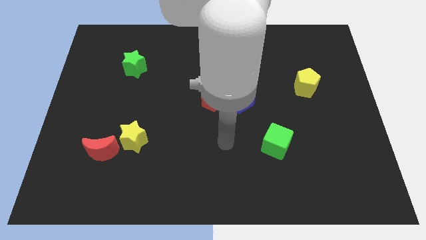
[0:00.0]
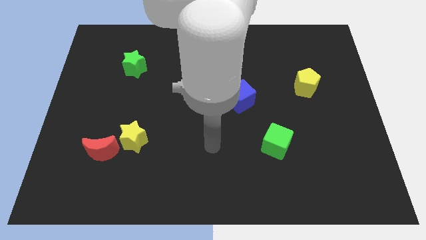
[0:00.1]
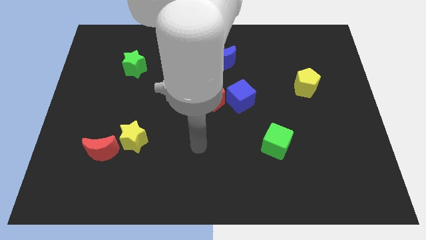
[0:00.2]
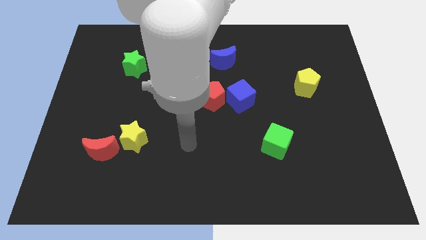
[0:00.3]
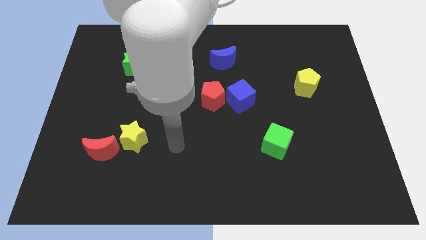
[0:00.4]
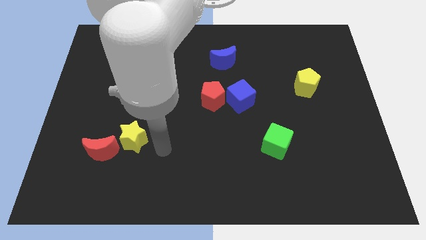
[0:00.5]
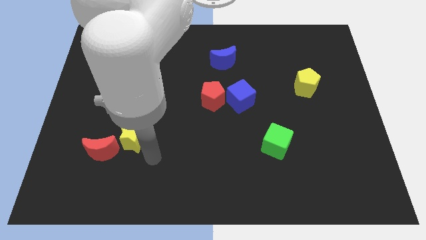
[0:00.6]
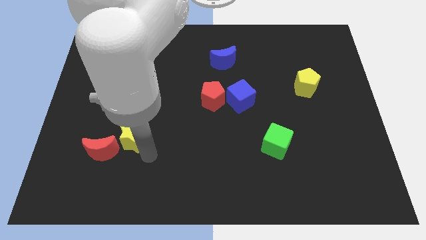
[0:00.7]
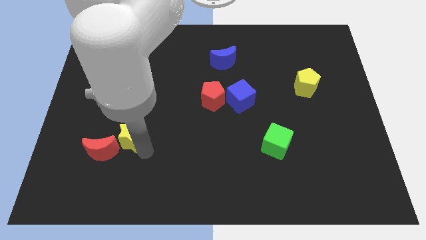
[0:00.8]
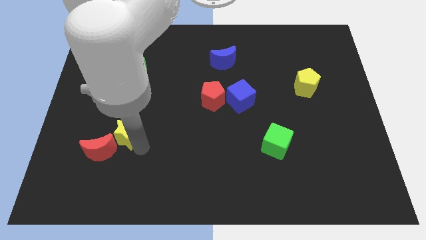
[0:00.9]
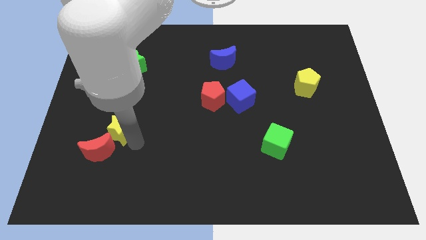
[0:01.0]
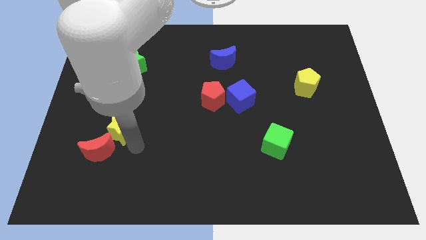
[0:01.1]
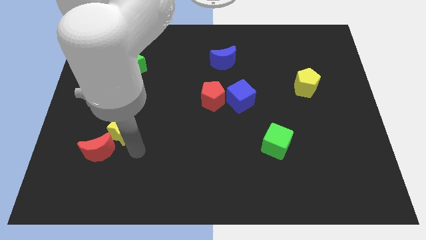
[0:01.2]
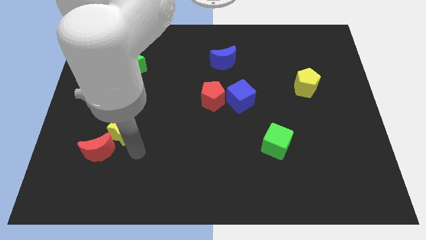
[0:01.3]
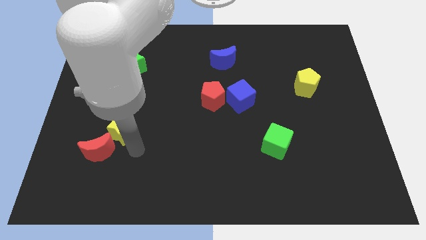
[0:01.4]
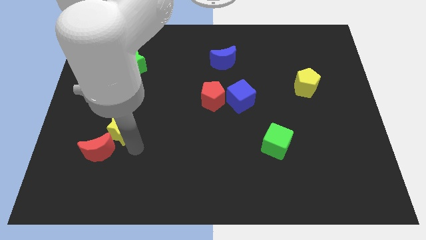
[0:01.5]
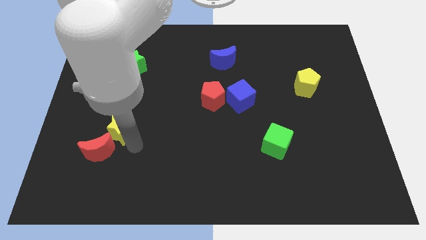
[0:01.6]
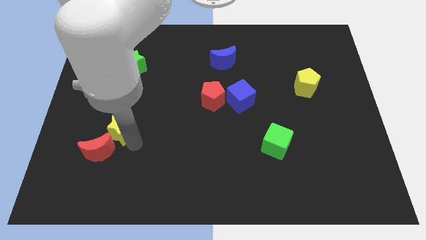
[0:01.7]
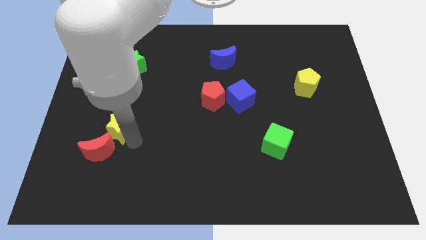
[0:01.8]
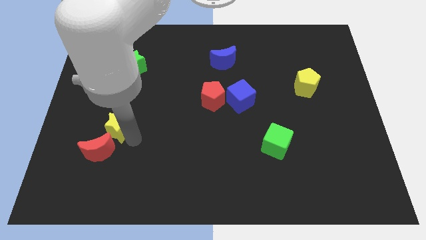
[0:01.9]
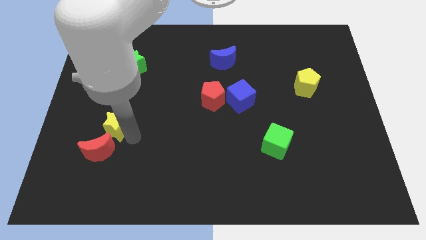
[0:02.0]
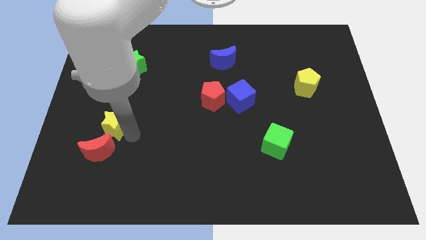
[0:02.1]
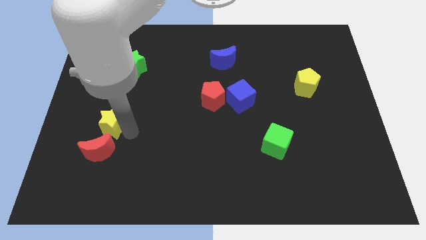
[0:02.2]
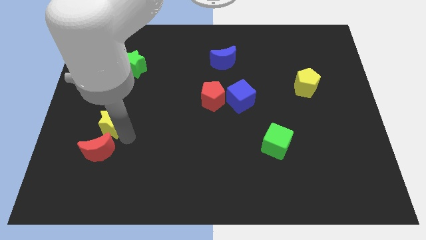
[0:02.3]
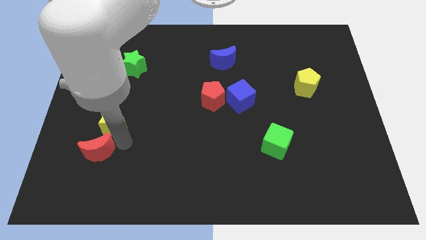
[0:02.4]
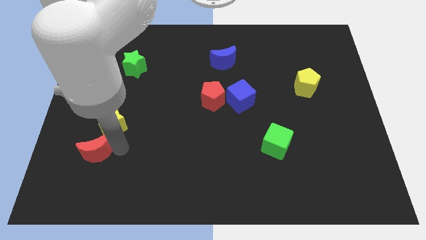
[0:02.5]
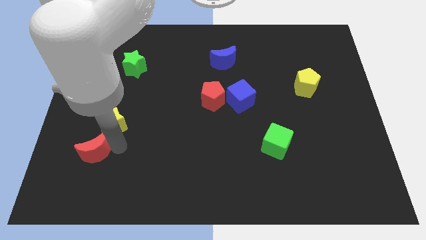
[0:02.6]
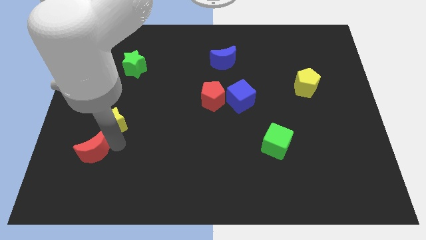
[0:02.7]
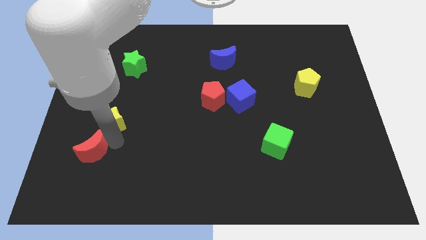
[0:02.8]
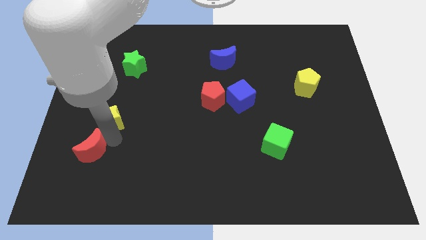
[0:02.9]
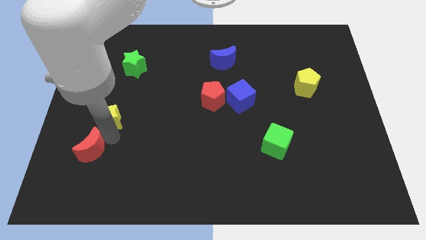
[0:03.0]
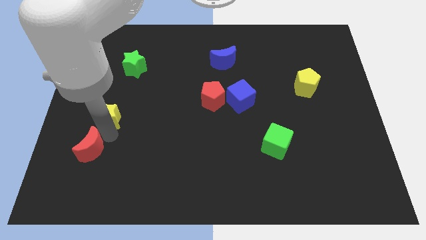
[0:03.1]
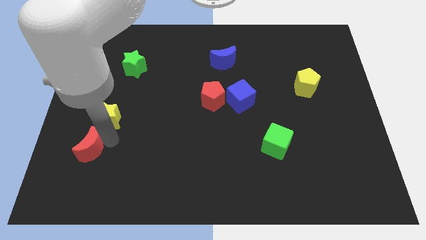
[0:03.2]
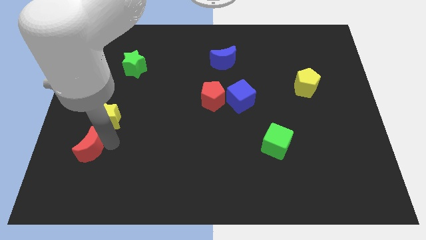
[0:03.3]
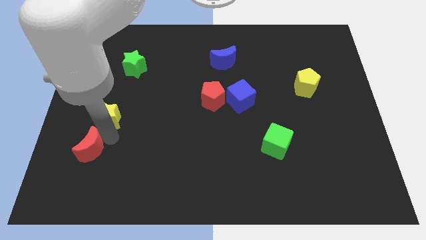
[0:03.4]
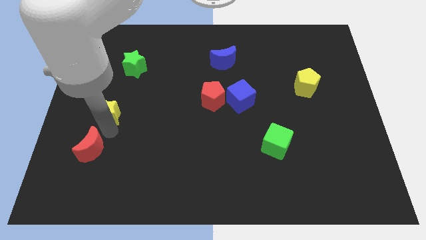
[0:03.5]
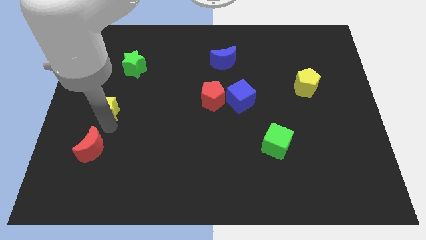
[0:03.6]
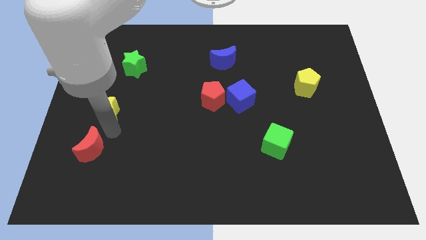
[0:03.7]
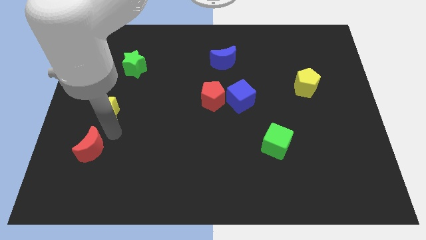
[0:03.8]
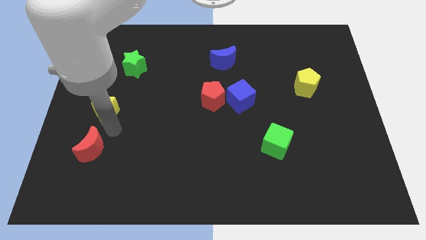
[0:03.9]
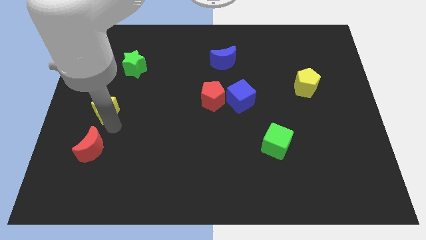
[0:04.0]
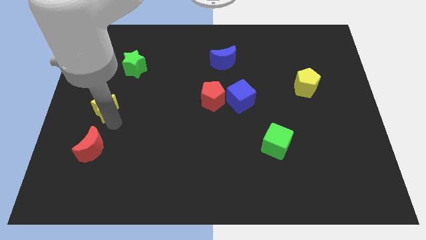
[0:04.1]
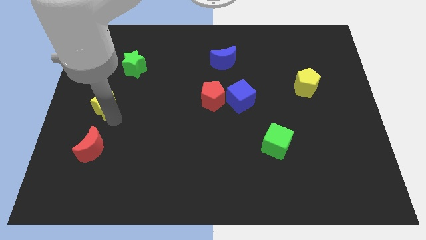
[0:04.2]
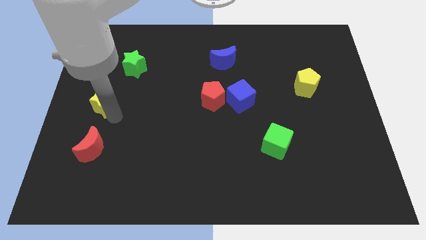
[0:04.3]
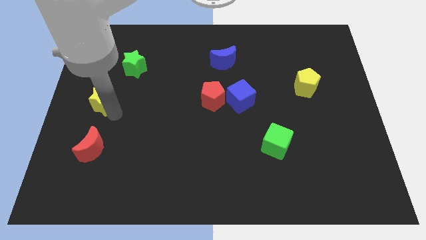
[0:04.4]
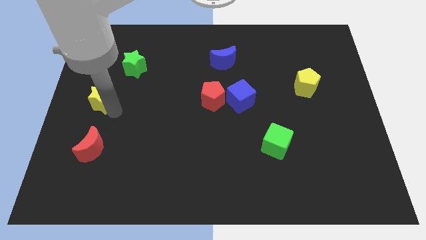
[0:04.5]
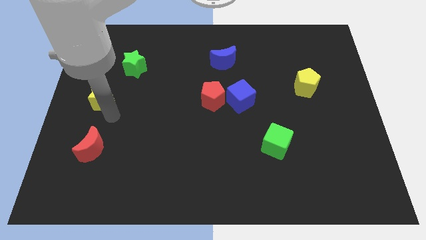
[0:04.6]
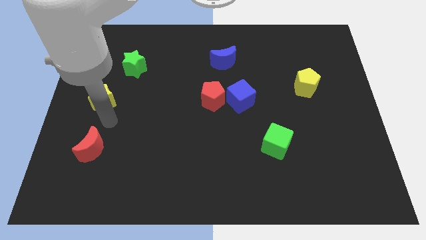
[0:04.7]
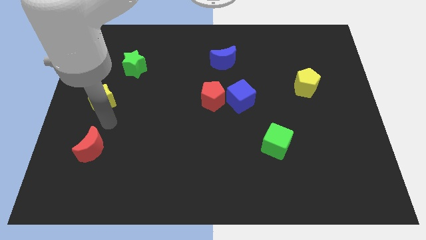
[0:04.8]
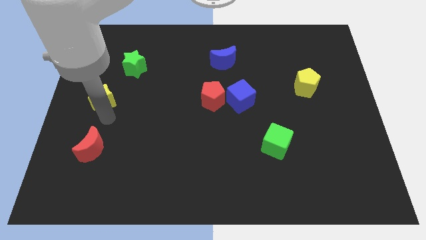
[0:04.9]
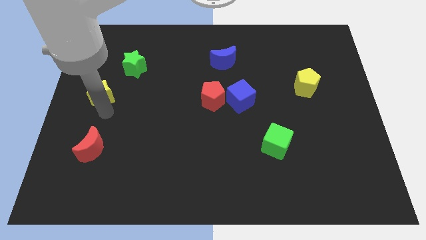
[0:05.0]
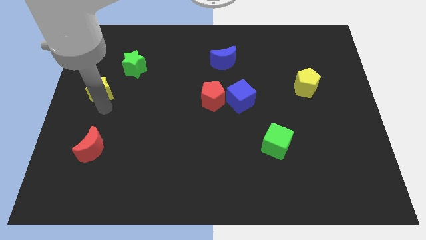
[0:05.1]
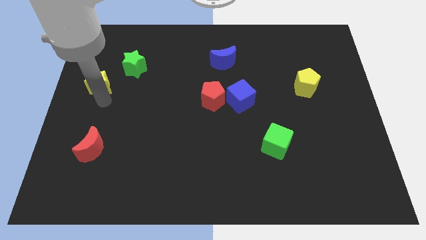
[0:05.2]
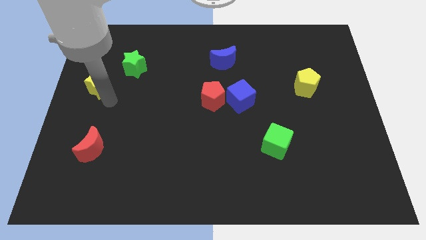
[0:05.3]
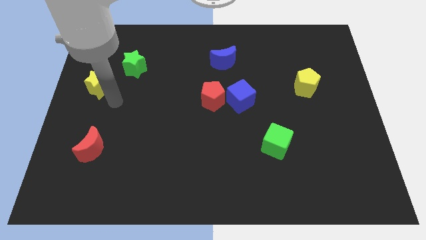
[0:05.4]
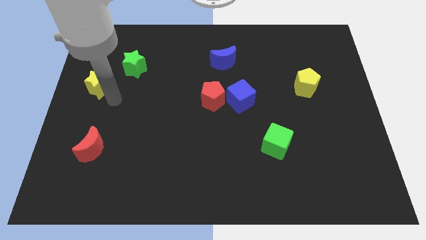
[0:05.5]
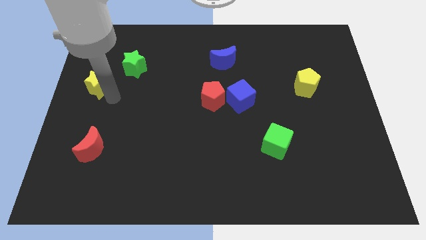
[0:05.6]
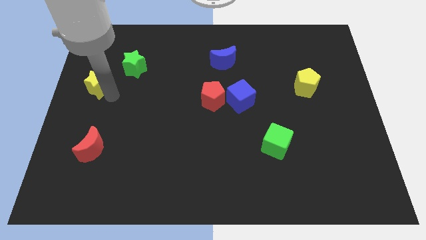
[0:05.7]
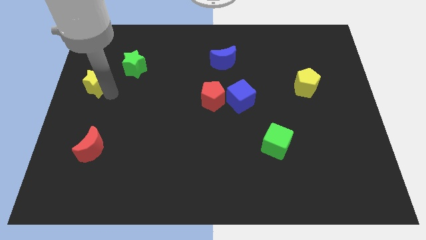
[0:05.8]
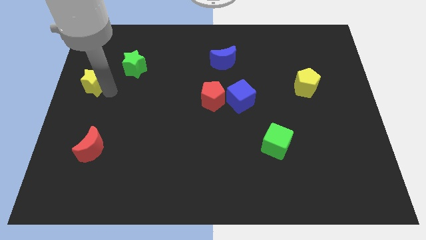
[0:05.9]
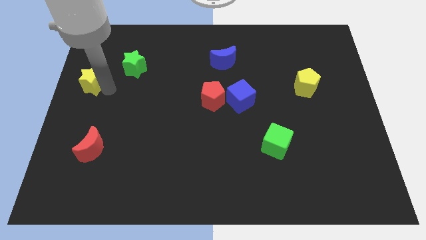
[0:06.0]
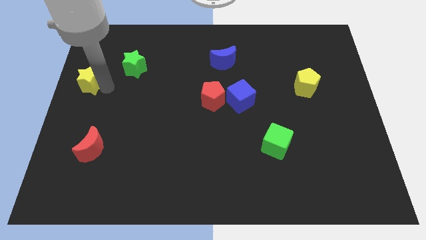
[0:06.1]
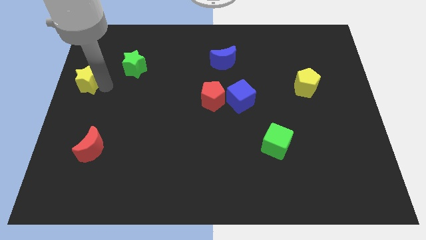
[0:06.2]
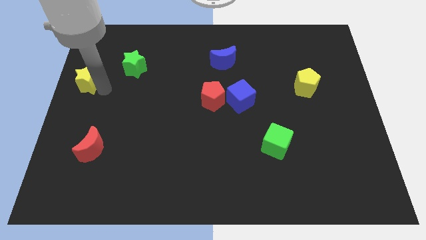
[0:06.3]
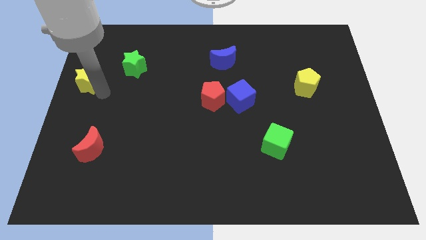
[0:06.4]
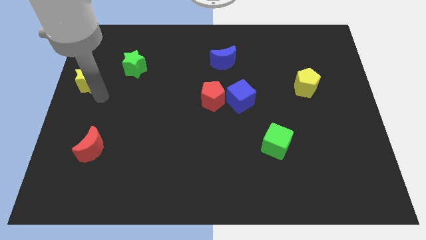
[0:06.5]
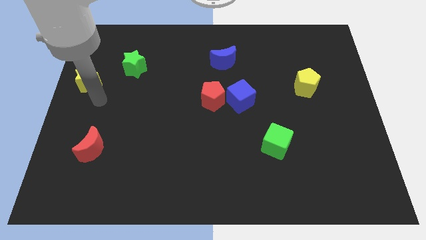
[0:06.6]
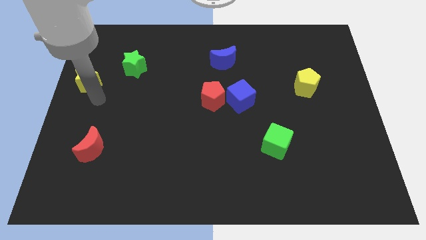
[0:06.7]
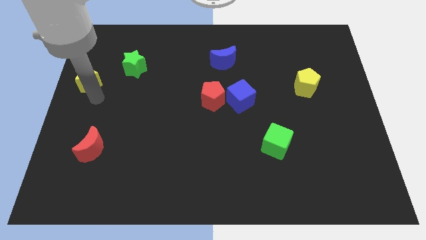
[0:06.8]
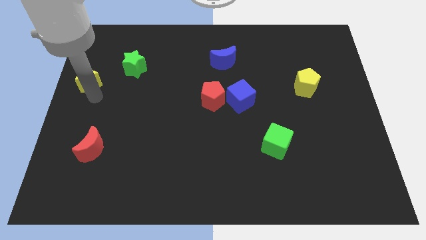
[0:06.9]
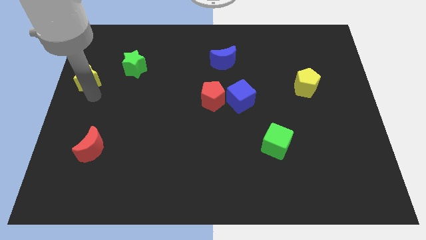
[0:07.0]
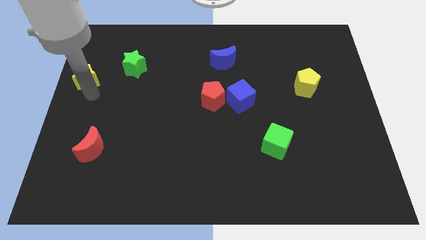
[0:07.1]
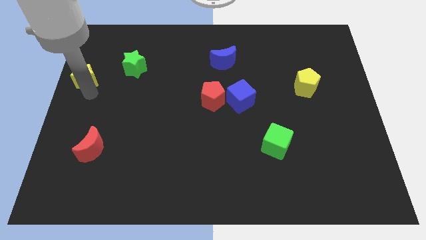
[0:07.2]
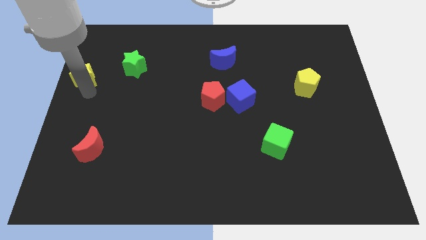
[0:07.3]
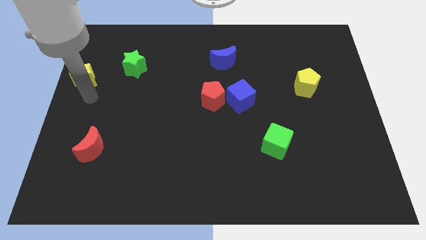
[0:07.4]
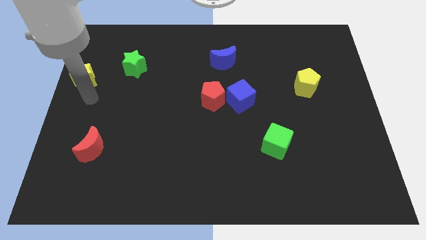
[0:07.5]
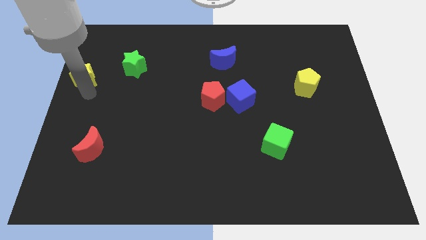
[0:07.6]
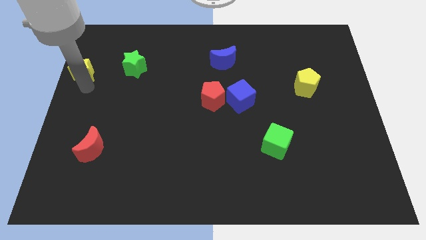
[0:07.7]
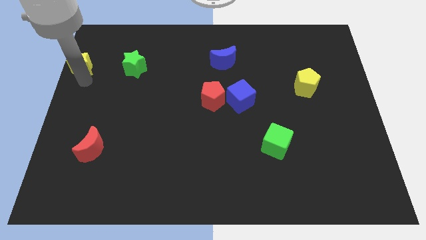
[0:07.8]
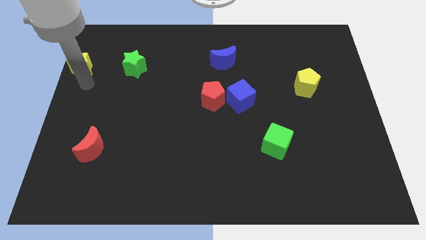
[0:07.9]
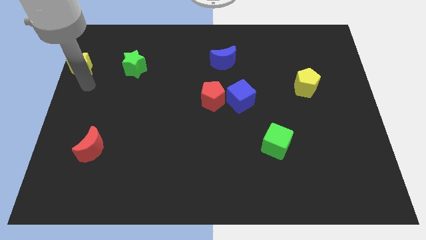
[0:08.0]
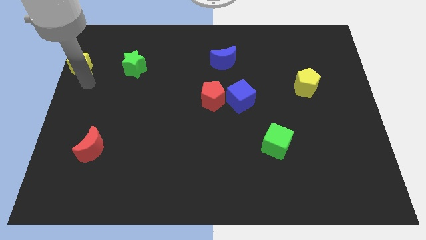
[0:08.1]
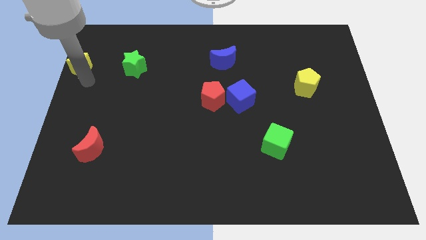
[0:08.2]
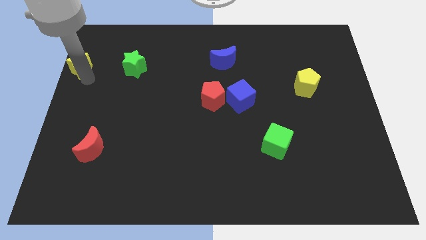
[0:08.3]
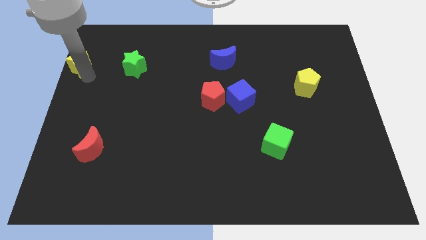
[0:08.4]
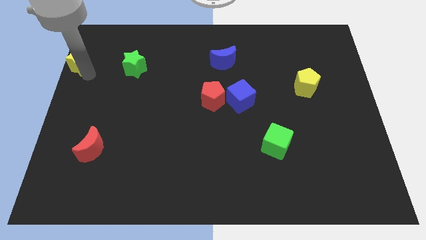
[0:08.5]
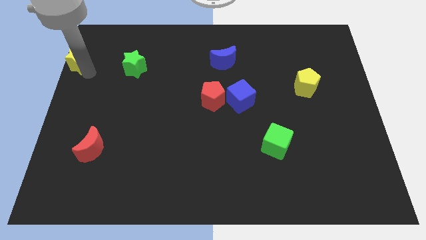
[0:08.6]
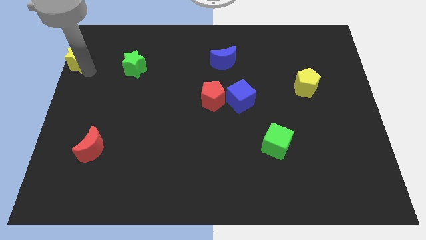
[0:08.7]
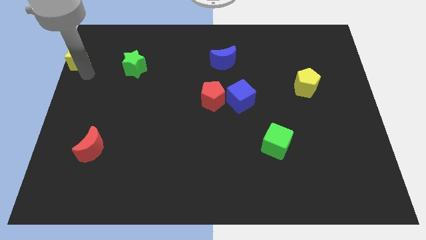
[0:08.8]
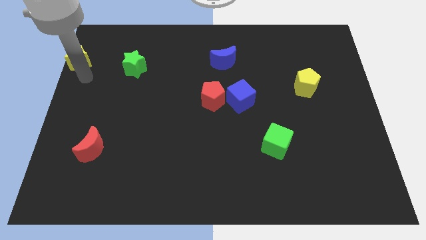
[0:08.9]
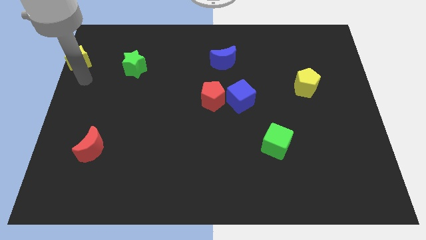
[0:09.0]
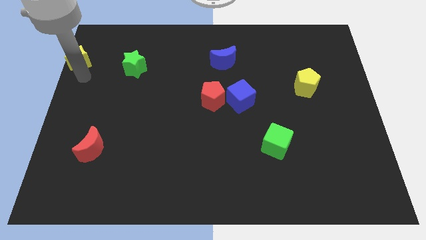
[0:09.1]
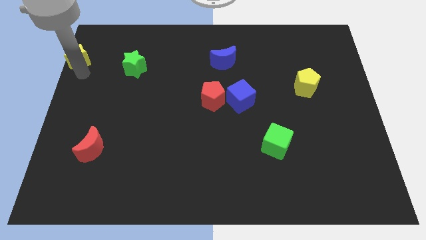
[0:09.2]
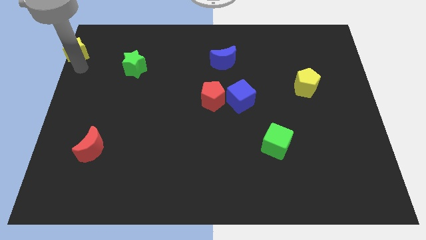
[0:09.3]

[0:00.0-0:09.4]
slide the yellow star to the top left corner
